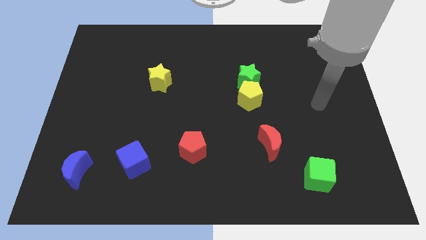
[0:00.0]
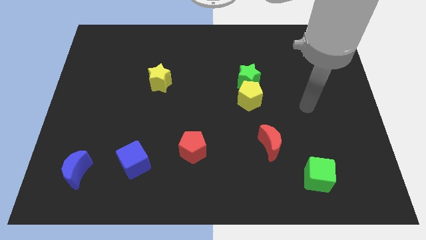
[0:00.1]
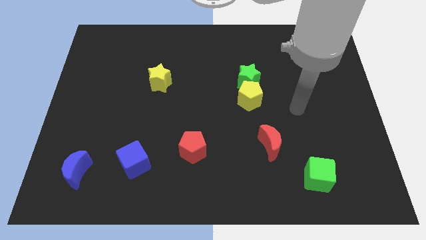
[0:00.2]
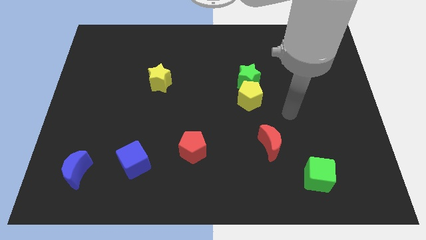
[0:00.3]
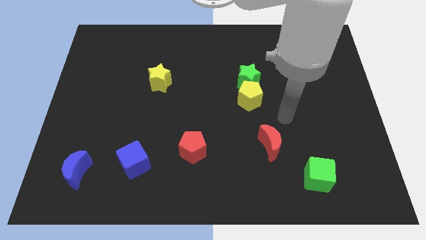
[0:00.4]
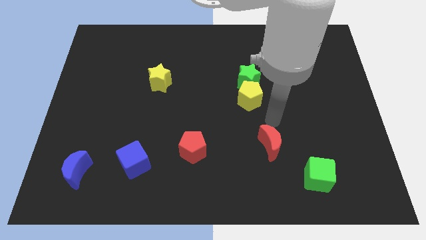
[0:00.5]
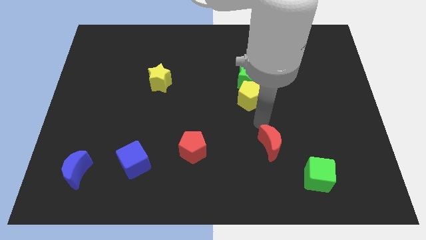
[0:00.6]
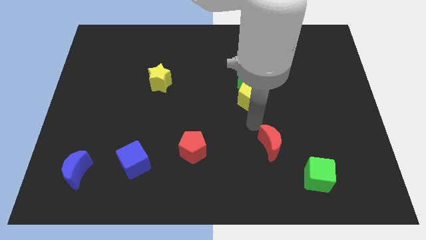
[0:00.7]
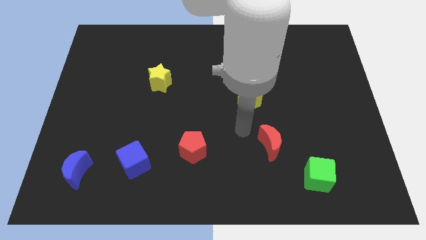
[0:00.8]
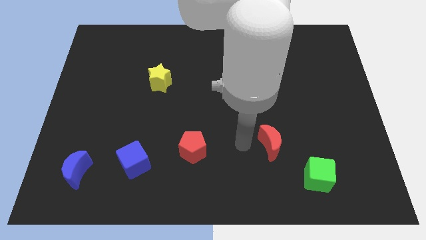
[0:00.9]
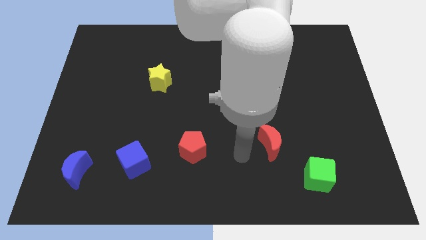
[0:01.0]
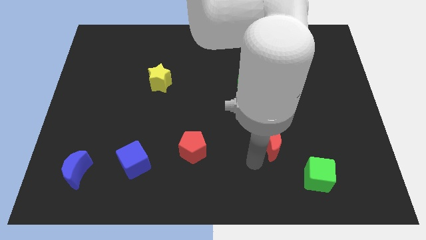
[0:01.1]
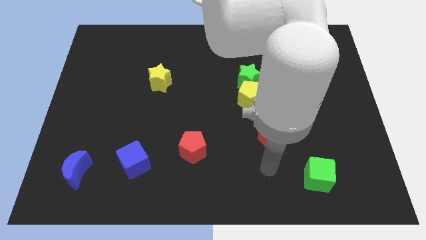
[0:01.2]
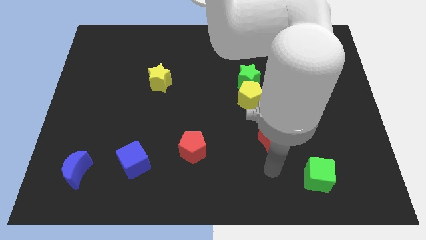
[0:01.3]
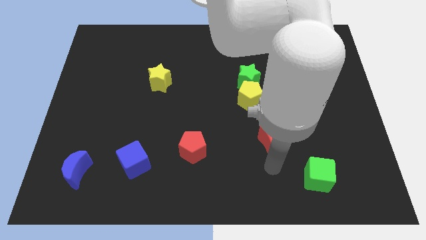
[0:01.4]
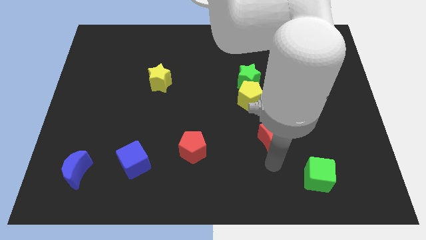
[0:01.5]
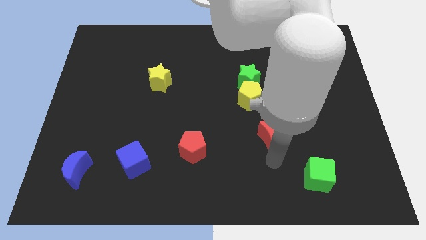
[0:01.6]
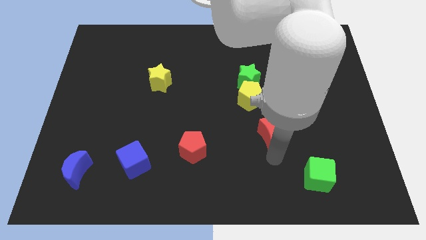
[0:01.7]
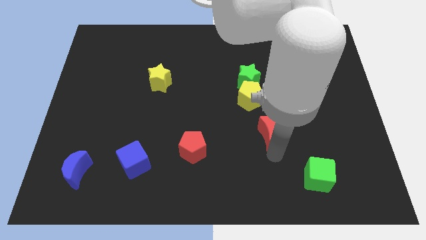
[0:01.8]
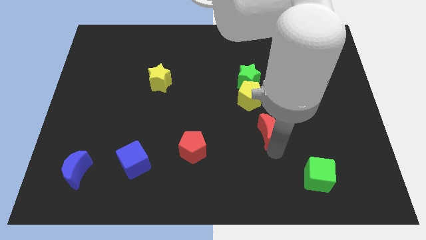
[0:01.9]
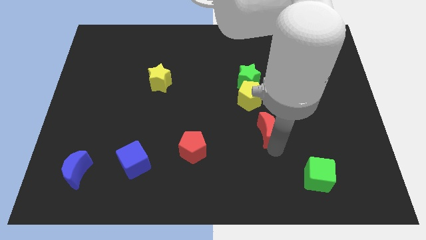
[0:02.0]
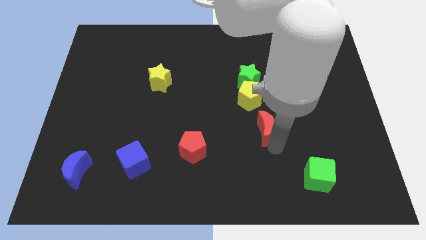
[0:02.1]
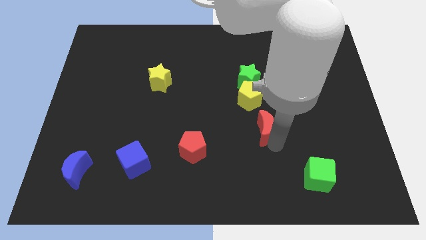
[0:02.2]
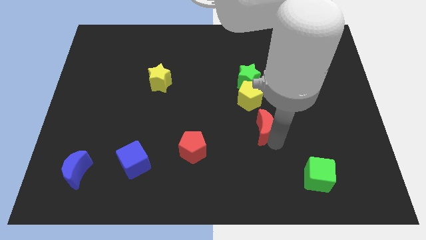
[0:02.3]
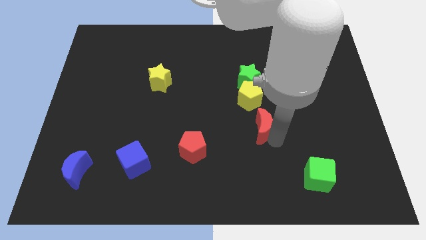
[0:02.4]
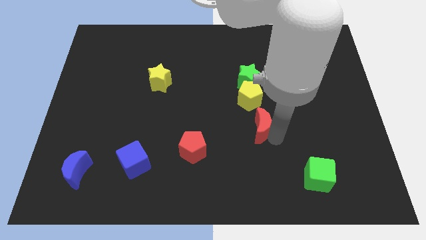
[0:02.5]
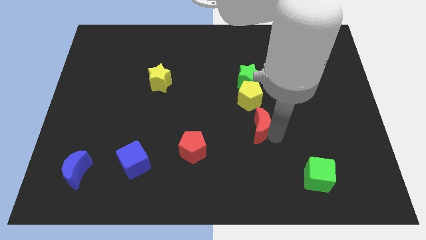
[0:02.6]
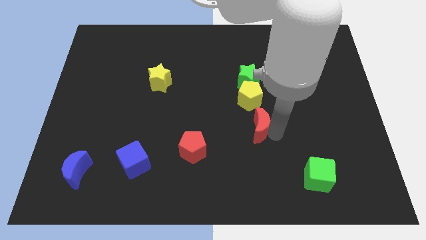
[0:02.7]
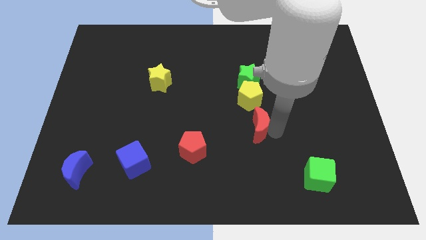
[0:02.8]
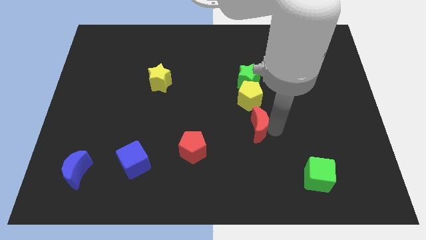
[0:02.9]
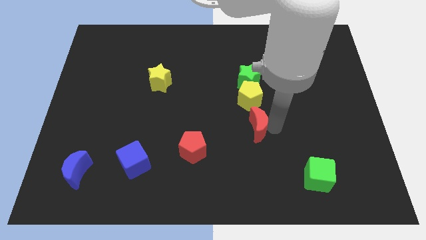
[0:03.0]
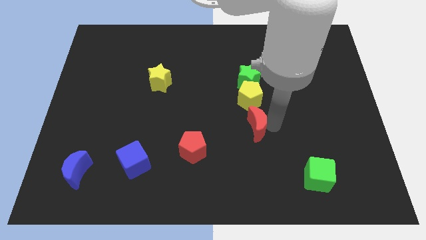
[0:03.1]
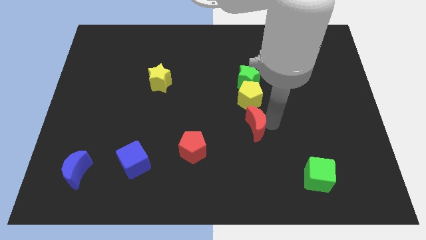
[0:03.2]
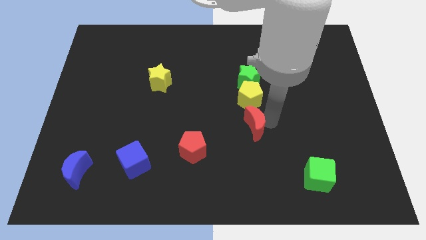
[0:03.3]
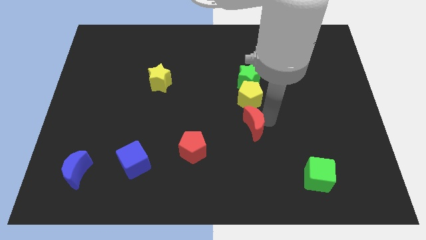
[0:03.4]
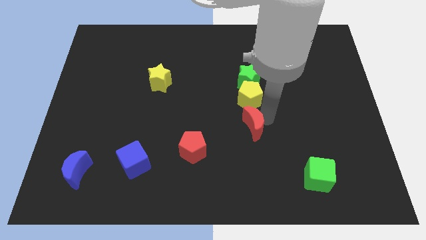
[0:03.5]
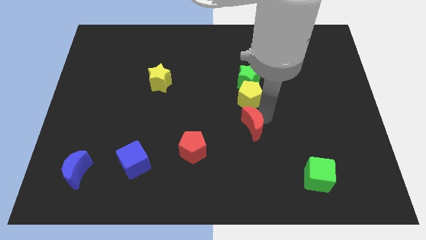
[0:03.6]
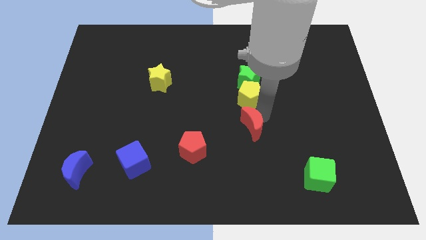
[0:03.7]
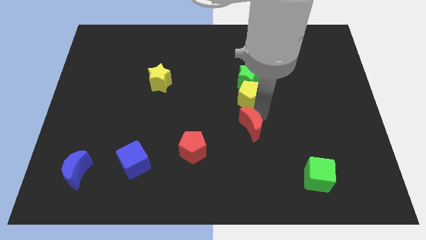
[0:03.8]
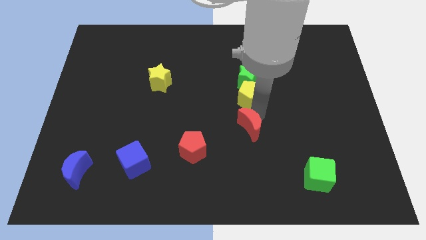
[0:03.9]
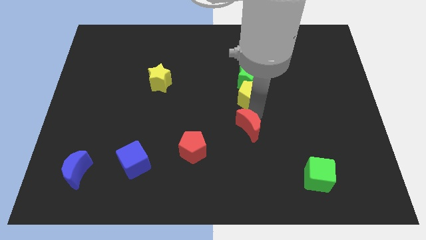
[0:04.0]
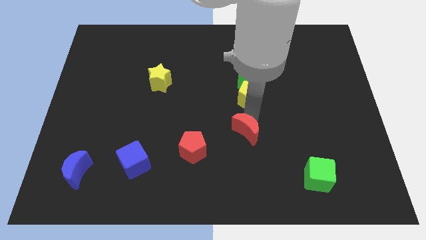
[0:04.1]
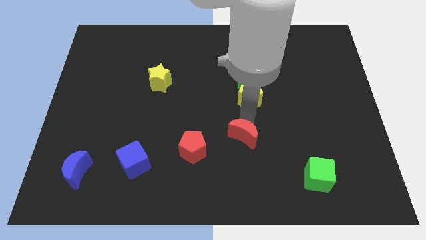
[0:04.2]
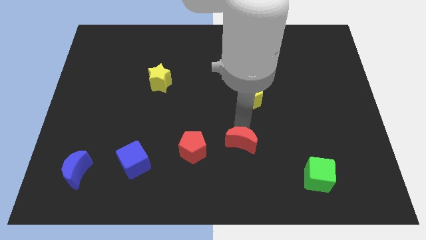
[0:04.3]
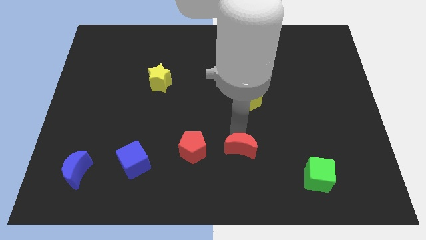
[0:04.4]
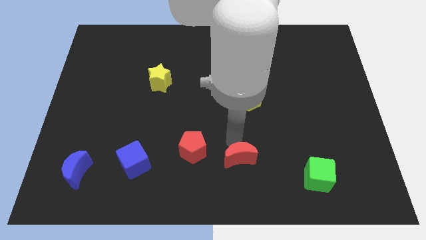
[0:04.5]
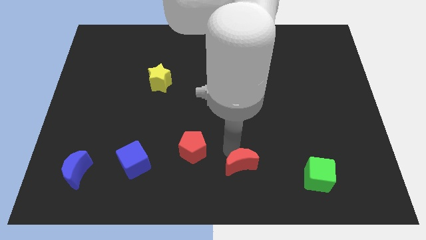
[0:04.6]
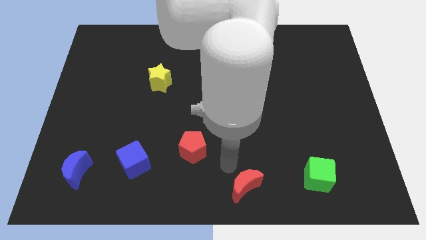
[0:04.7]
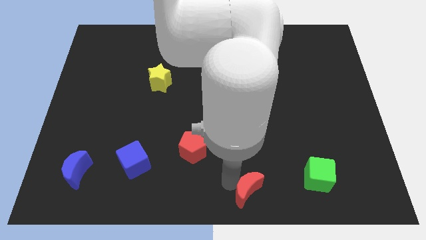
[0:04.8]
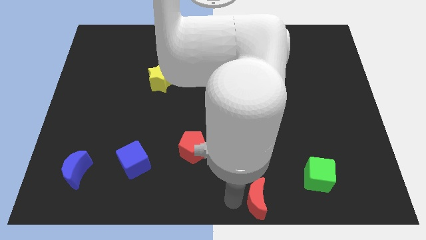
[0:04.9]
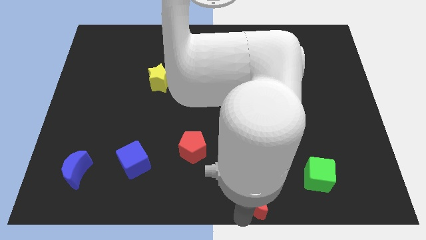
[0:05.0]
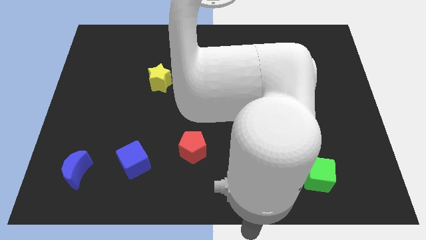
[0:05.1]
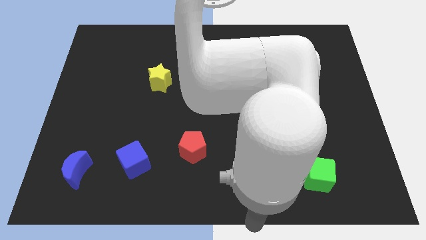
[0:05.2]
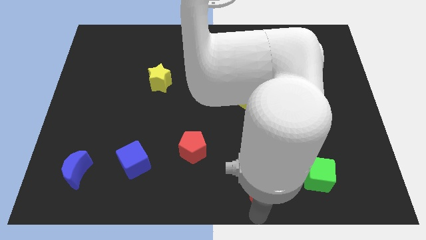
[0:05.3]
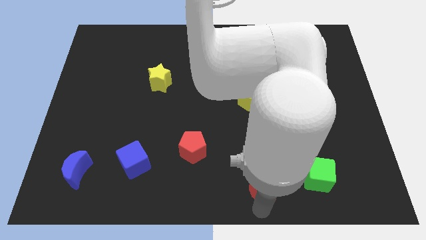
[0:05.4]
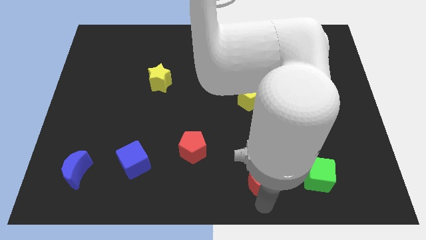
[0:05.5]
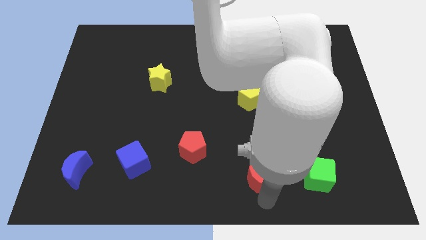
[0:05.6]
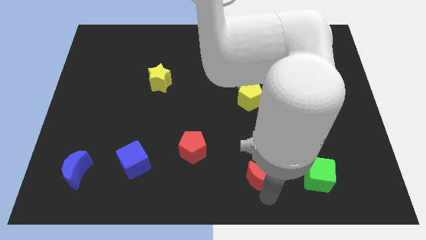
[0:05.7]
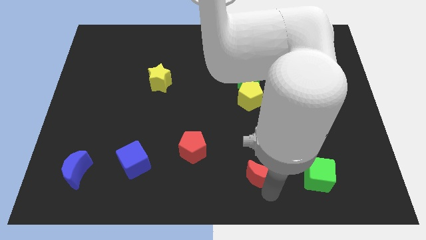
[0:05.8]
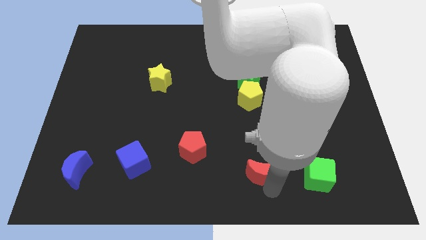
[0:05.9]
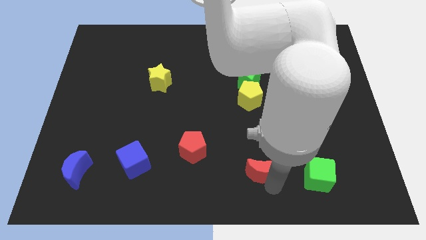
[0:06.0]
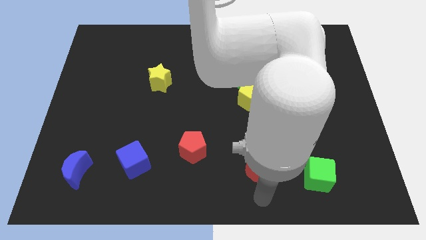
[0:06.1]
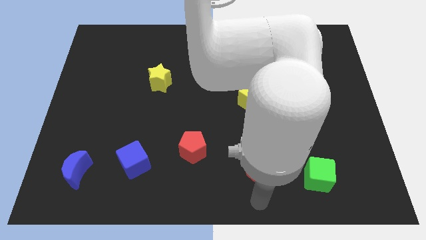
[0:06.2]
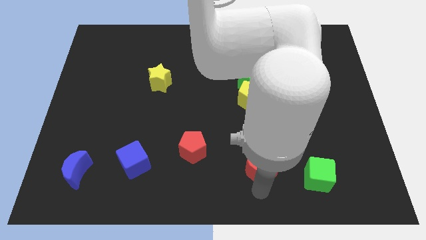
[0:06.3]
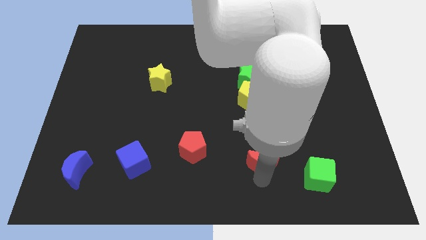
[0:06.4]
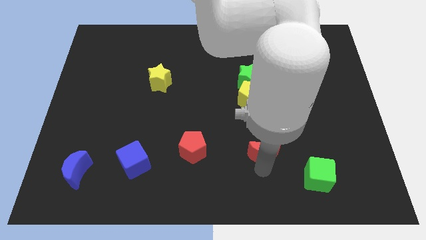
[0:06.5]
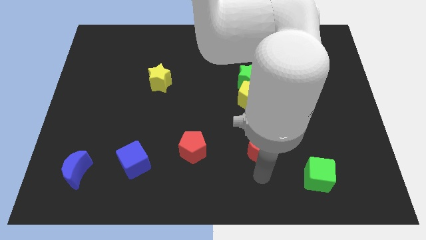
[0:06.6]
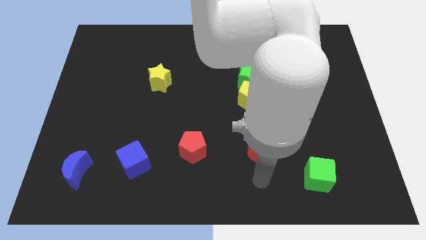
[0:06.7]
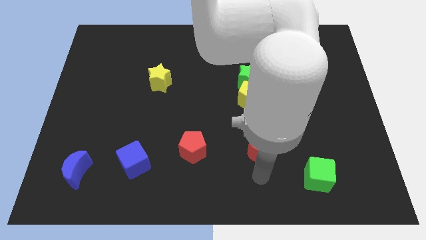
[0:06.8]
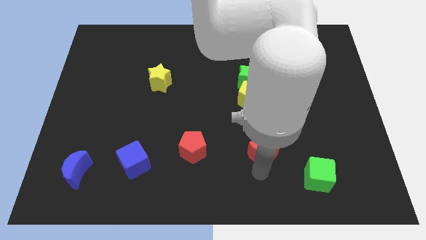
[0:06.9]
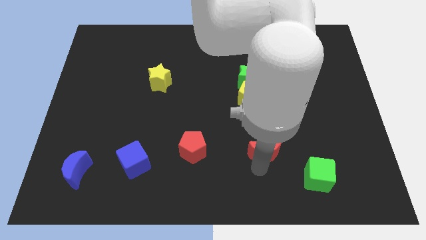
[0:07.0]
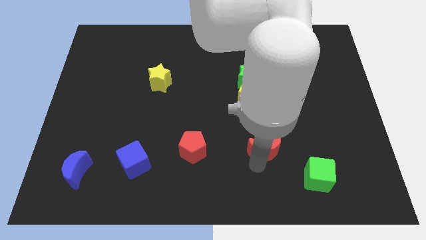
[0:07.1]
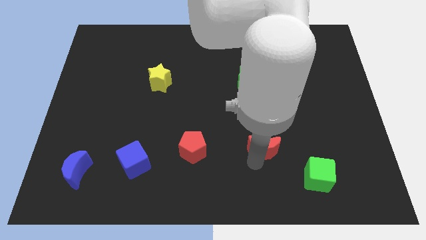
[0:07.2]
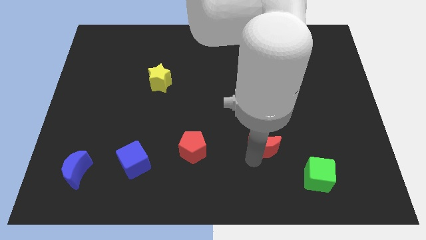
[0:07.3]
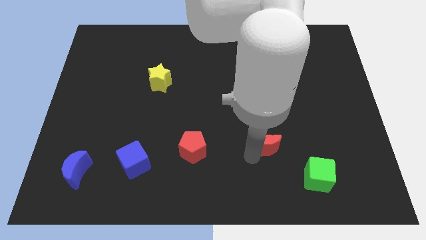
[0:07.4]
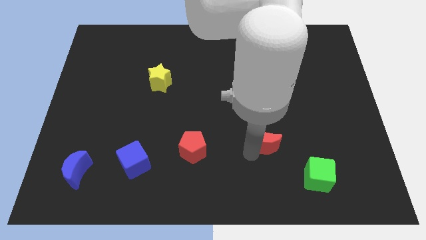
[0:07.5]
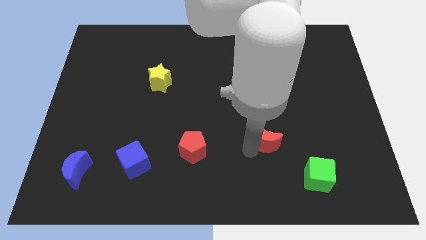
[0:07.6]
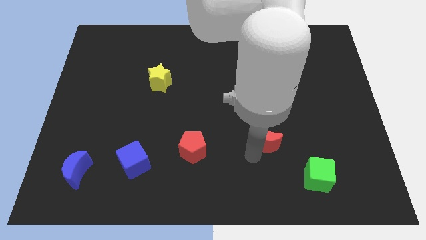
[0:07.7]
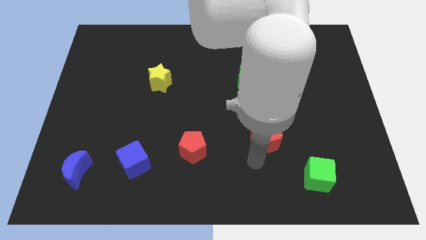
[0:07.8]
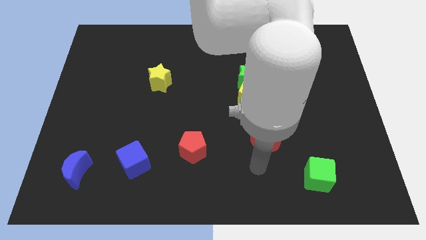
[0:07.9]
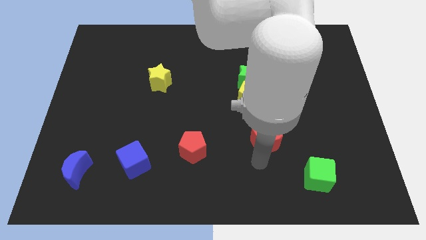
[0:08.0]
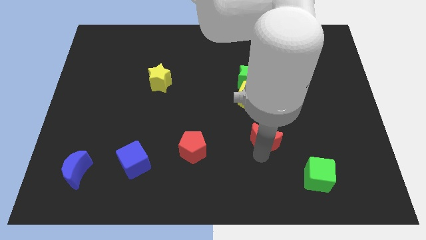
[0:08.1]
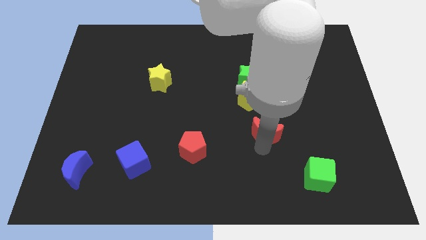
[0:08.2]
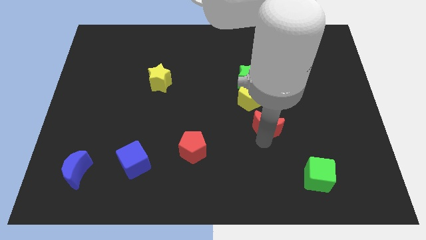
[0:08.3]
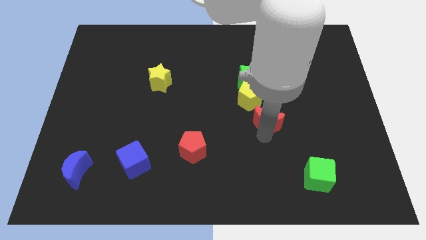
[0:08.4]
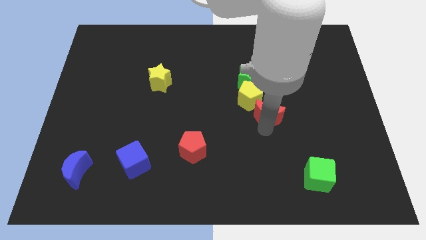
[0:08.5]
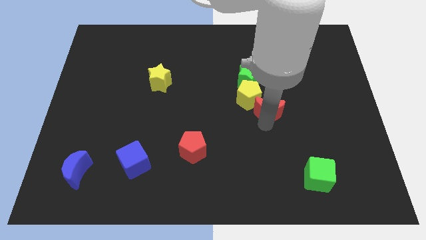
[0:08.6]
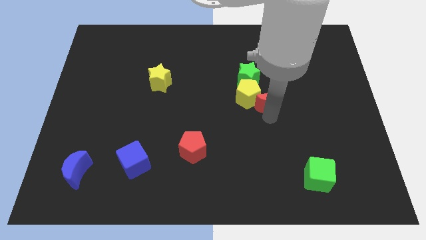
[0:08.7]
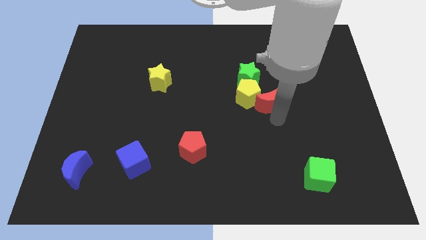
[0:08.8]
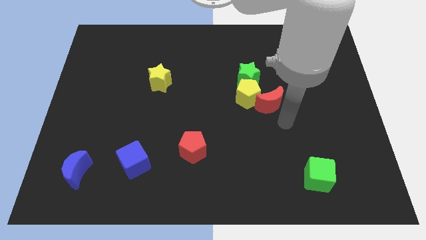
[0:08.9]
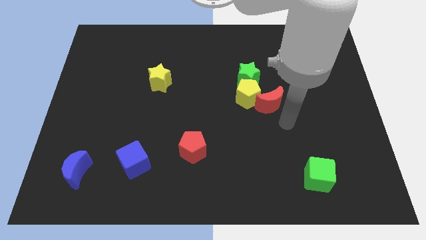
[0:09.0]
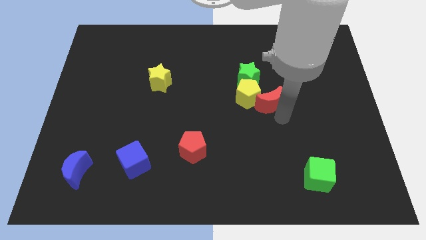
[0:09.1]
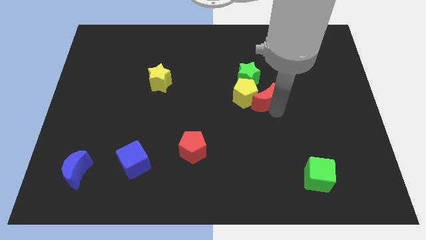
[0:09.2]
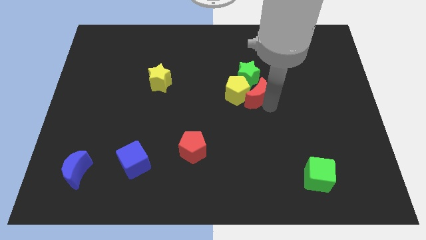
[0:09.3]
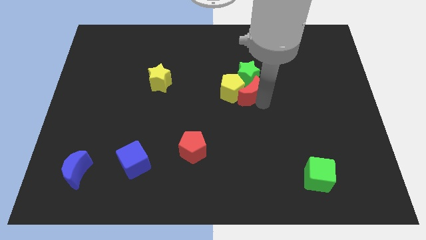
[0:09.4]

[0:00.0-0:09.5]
slide the red moon to the green star
